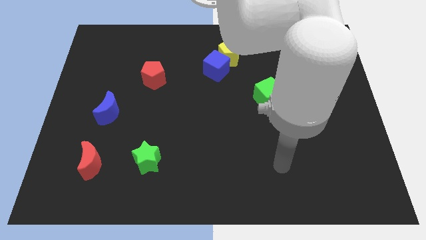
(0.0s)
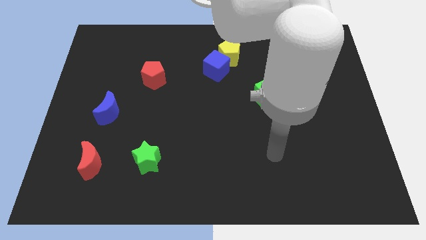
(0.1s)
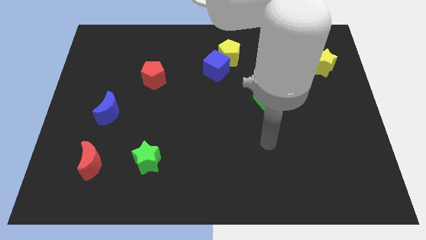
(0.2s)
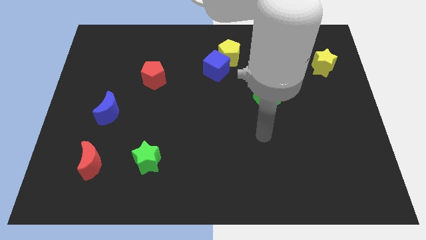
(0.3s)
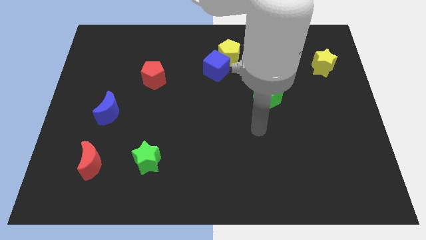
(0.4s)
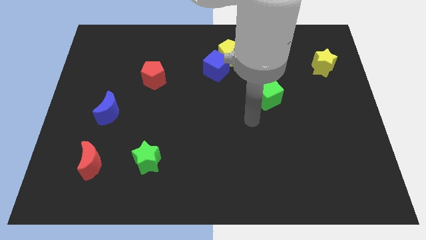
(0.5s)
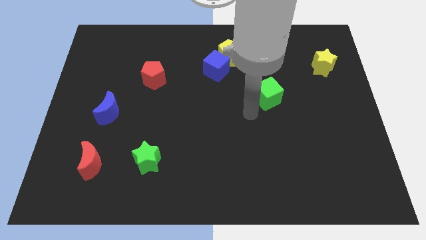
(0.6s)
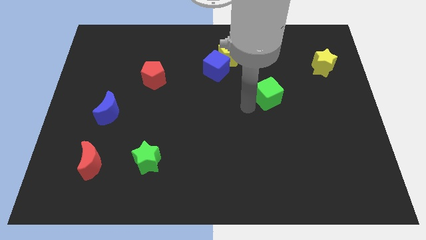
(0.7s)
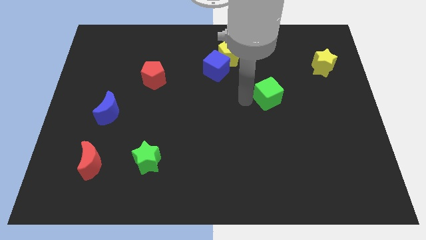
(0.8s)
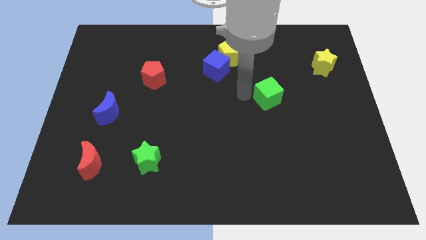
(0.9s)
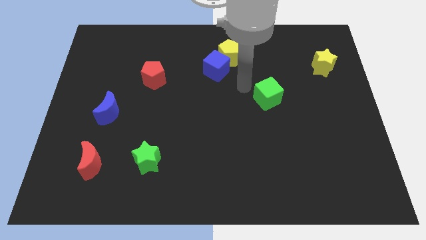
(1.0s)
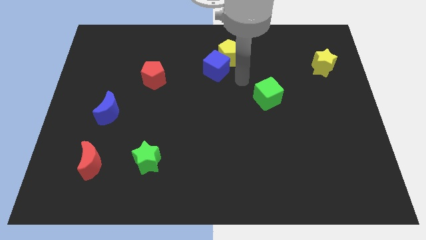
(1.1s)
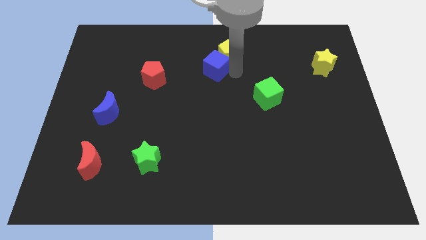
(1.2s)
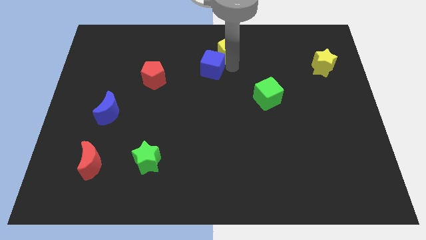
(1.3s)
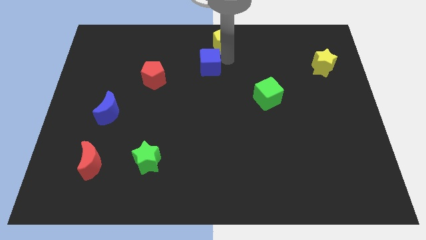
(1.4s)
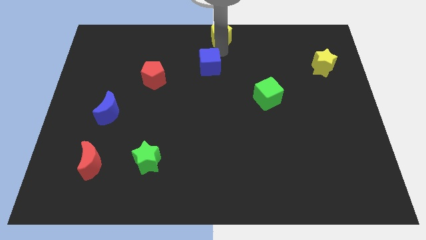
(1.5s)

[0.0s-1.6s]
pull the blue cube apart from the yellow pentagon

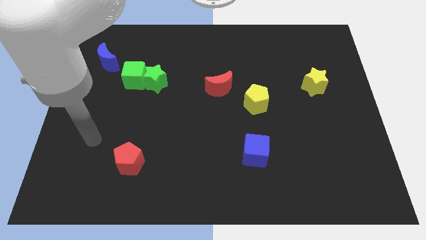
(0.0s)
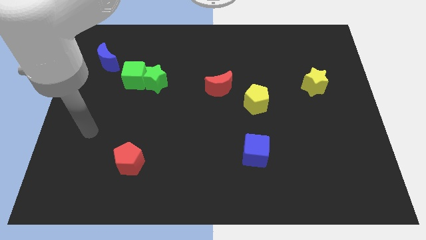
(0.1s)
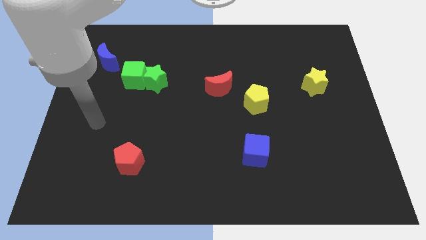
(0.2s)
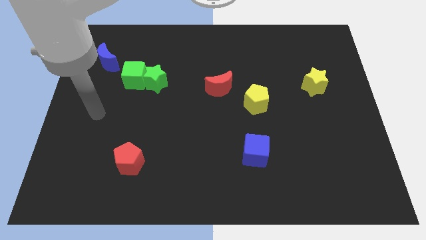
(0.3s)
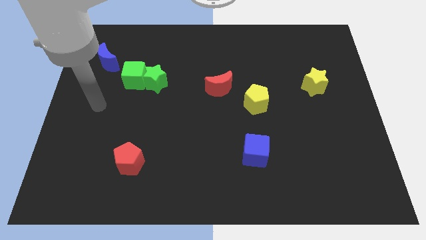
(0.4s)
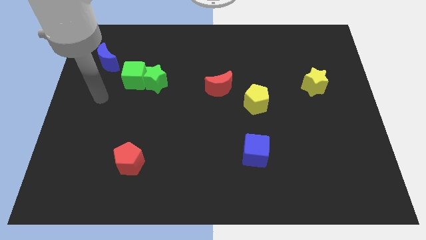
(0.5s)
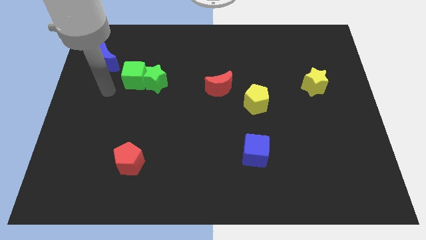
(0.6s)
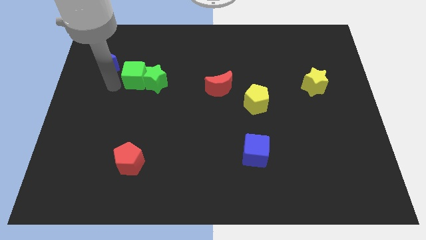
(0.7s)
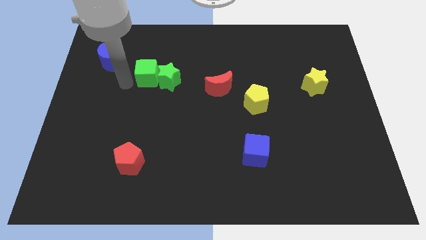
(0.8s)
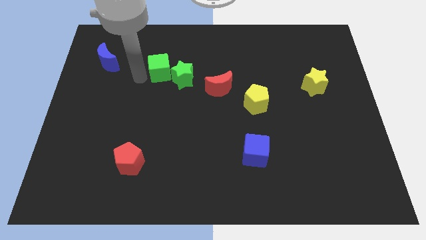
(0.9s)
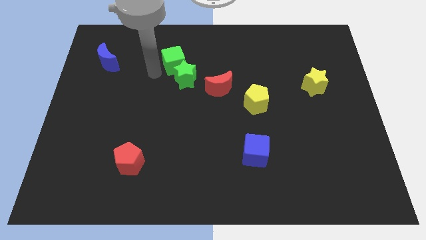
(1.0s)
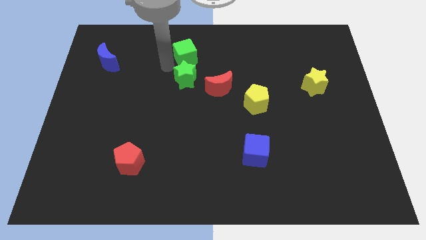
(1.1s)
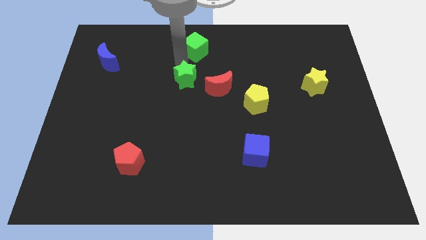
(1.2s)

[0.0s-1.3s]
pull the green star apart from the green cube

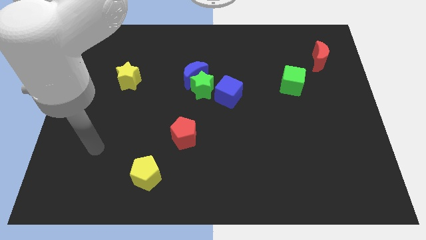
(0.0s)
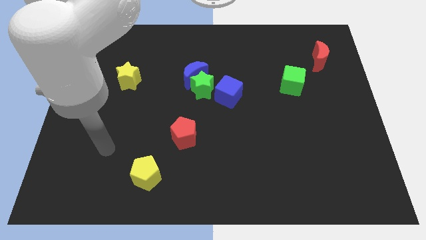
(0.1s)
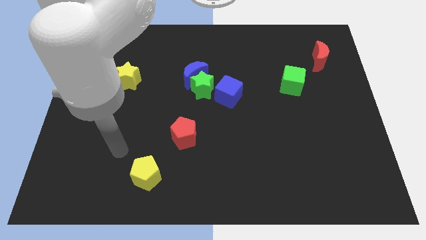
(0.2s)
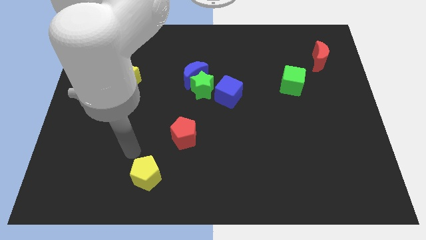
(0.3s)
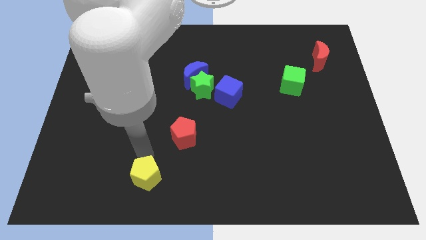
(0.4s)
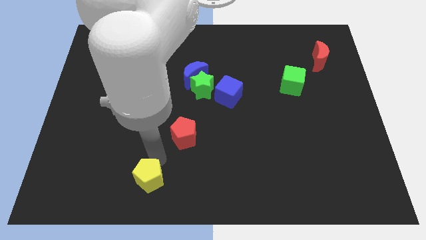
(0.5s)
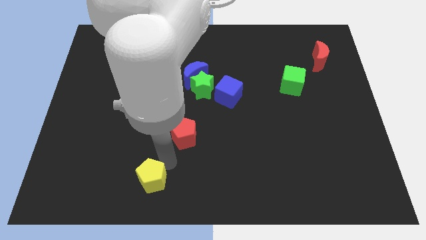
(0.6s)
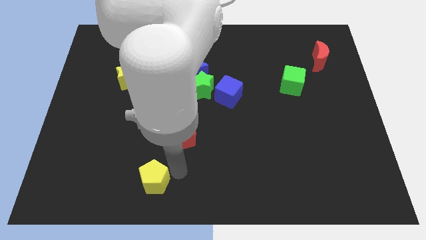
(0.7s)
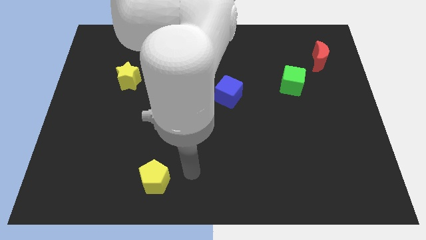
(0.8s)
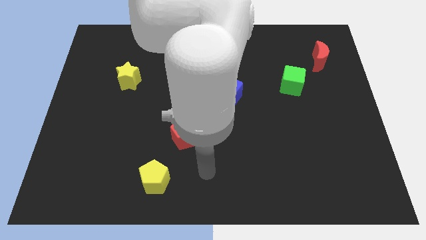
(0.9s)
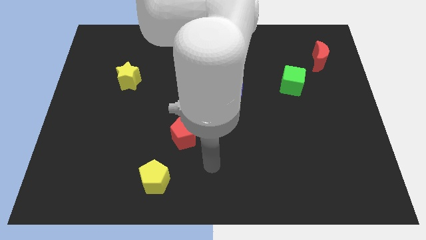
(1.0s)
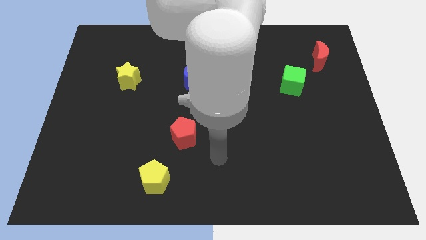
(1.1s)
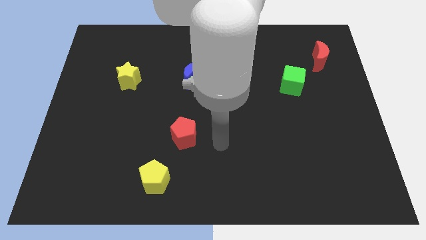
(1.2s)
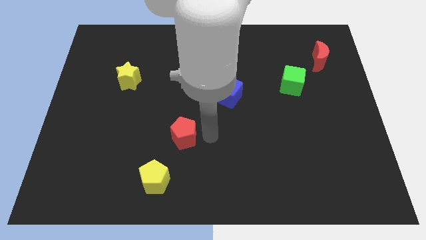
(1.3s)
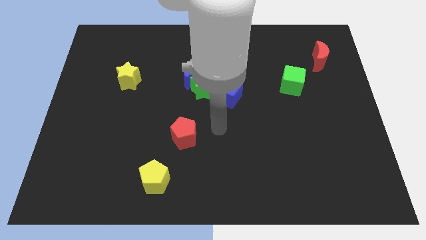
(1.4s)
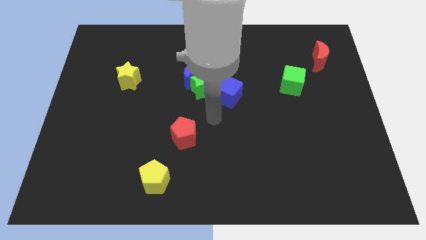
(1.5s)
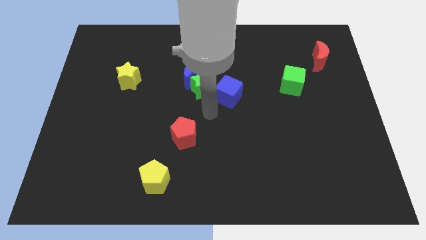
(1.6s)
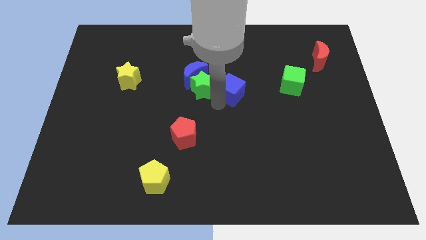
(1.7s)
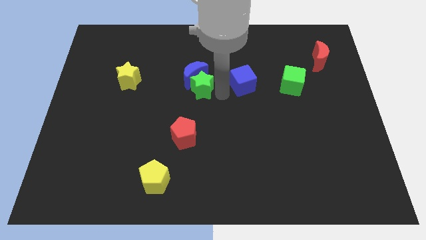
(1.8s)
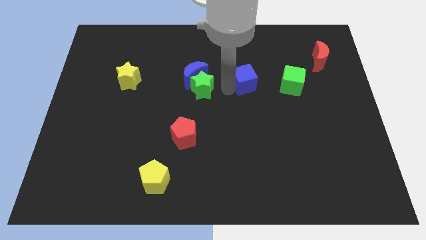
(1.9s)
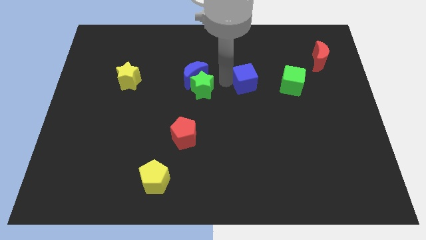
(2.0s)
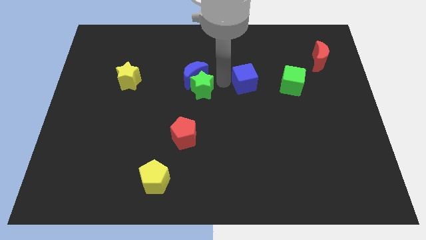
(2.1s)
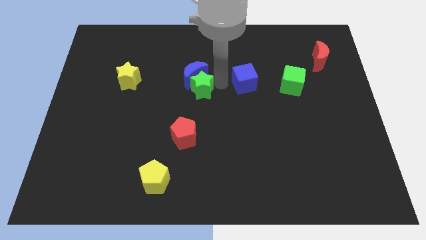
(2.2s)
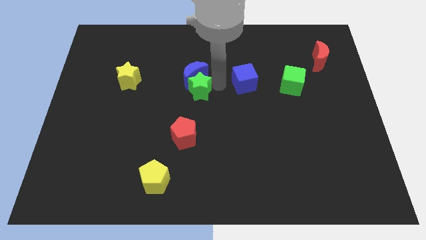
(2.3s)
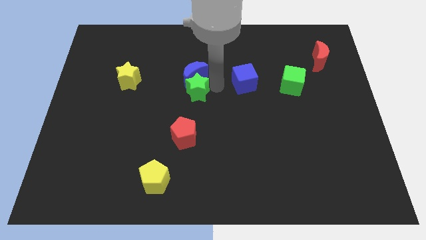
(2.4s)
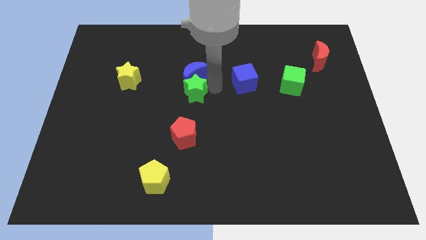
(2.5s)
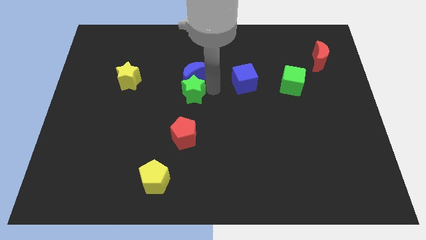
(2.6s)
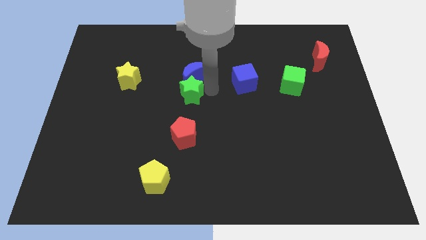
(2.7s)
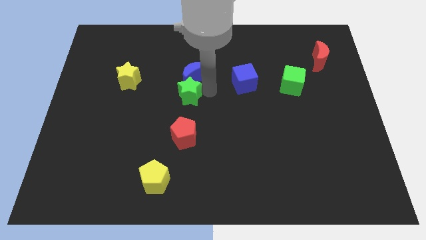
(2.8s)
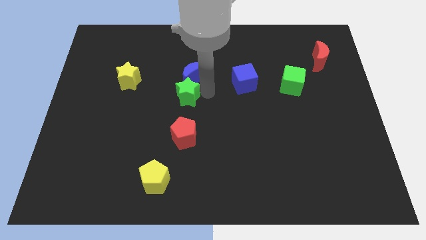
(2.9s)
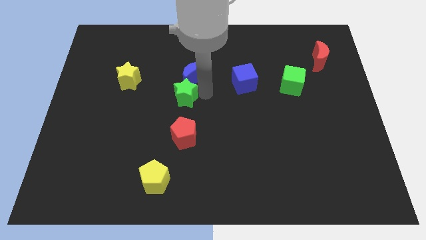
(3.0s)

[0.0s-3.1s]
pull the green star apart from the blue moon and blue cube

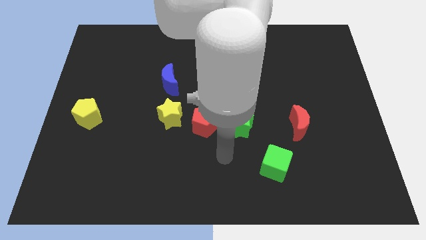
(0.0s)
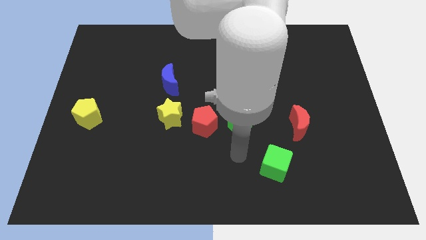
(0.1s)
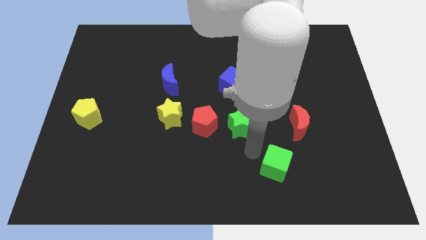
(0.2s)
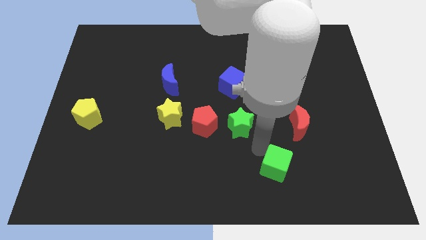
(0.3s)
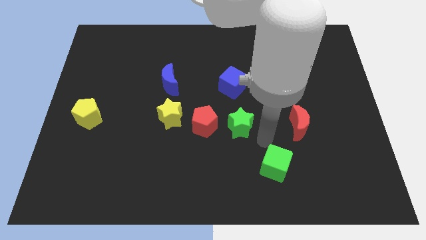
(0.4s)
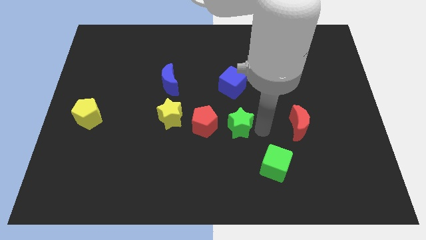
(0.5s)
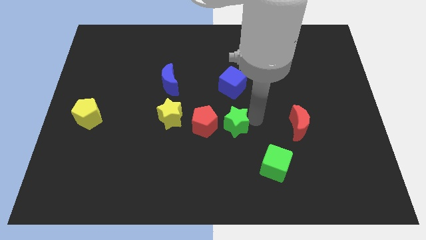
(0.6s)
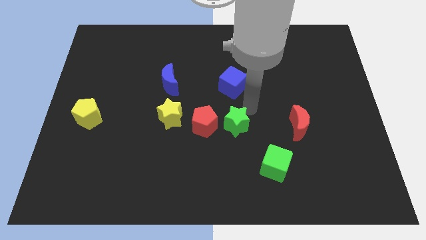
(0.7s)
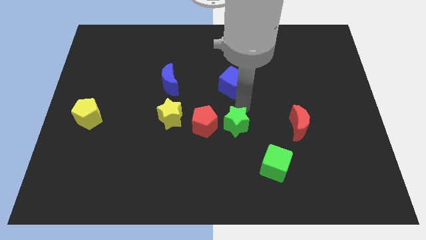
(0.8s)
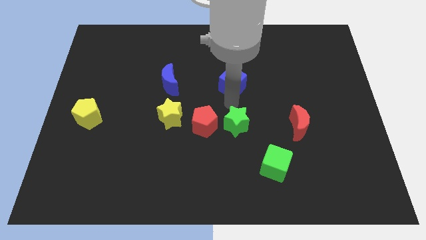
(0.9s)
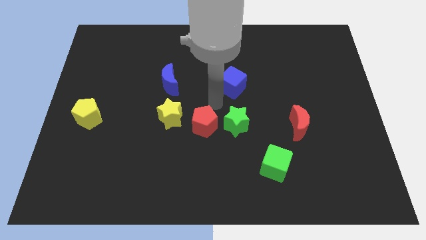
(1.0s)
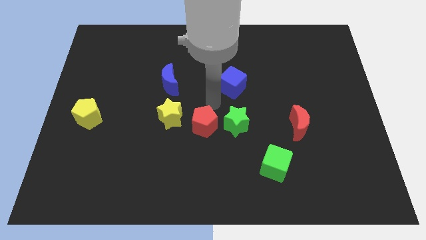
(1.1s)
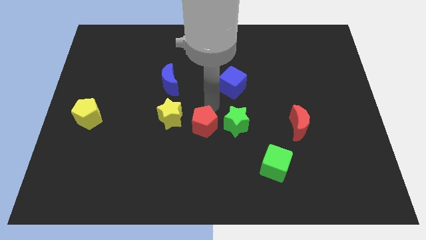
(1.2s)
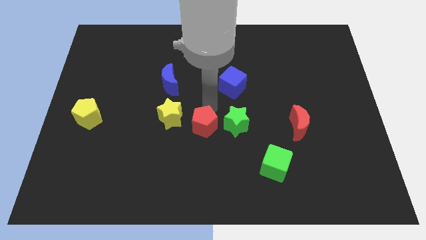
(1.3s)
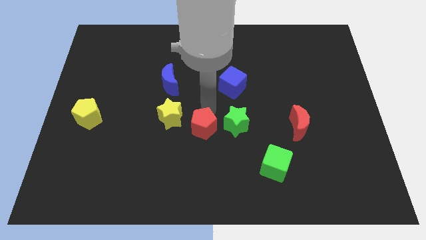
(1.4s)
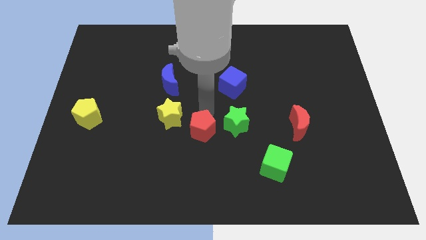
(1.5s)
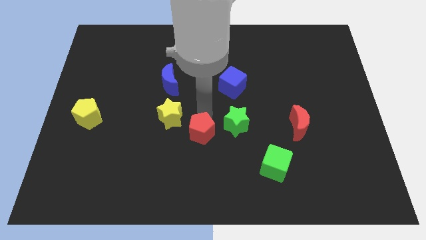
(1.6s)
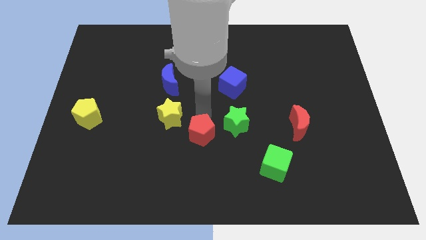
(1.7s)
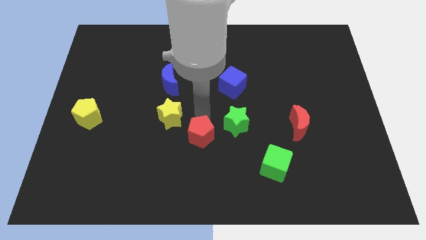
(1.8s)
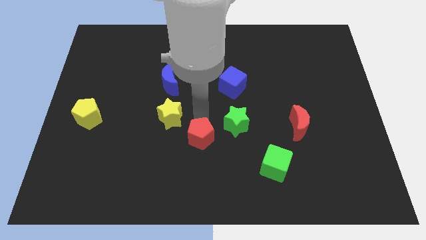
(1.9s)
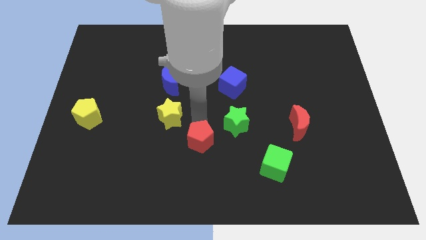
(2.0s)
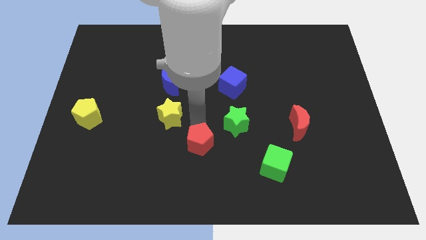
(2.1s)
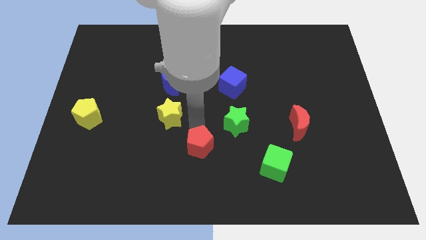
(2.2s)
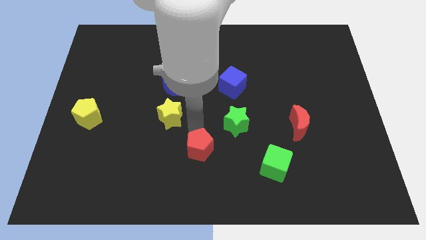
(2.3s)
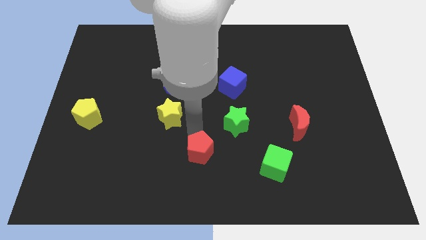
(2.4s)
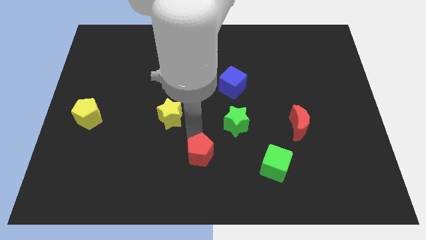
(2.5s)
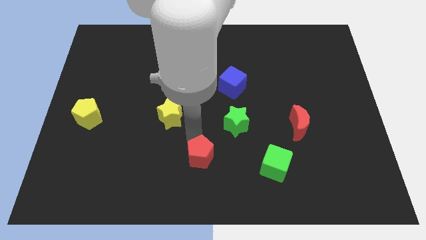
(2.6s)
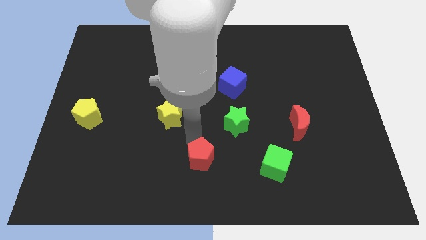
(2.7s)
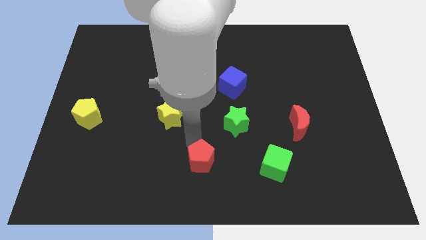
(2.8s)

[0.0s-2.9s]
separate the red pentagon from the yellow star and green star

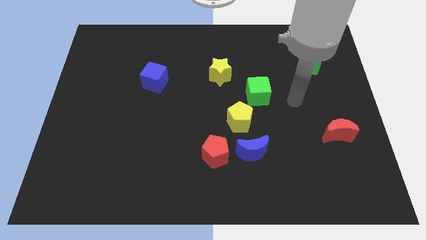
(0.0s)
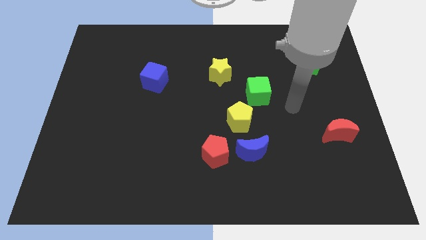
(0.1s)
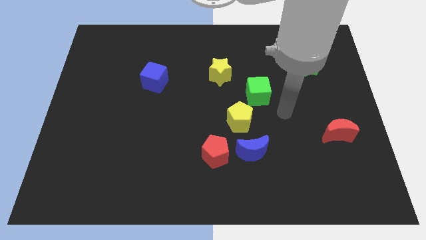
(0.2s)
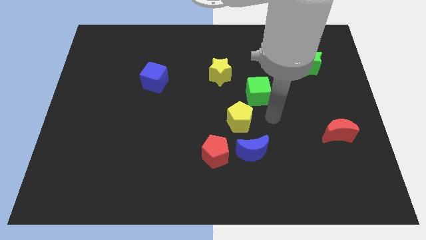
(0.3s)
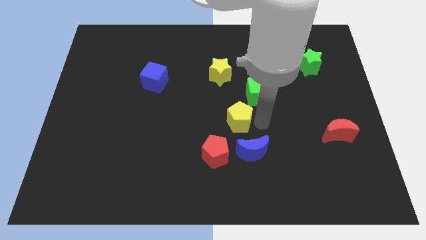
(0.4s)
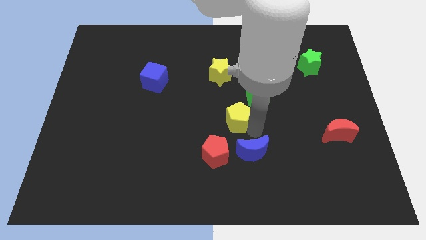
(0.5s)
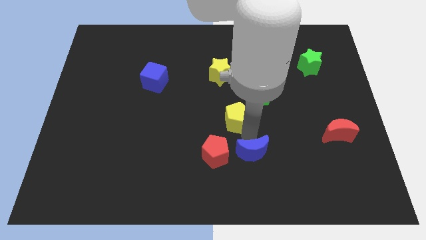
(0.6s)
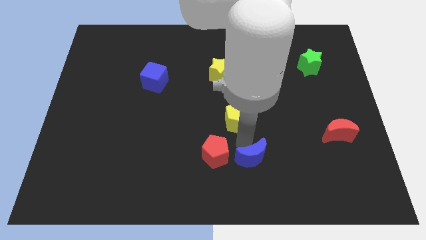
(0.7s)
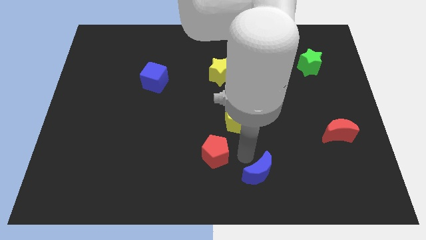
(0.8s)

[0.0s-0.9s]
pull the red pentagon apart from the blue moon
